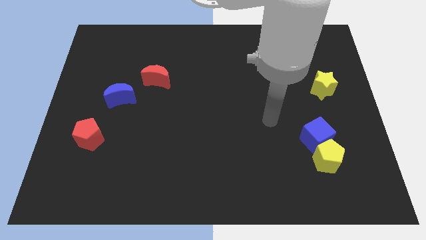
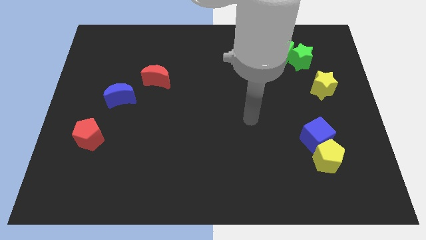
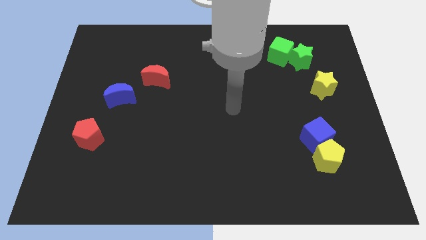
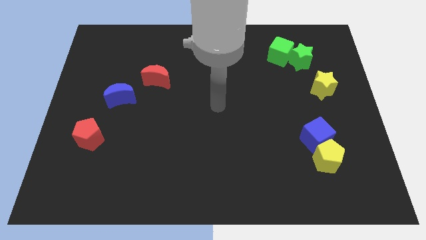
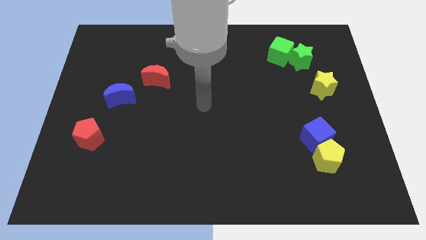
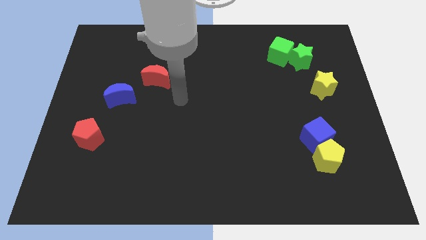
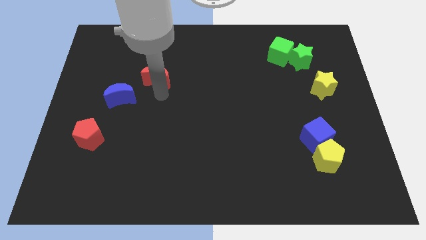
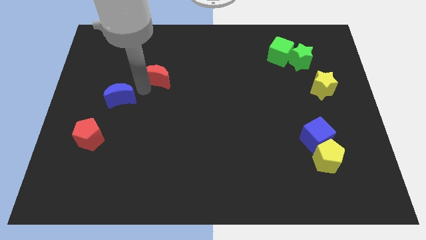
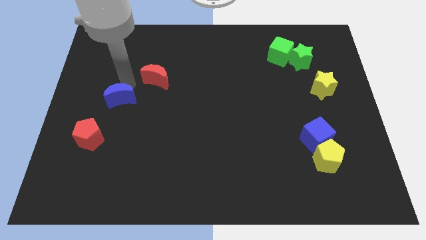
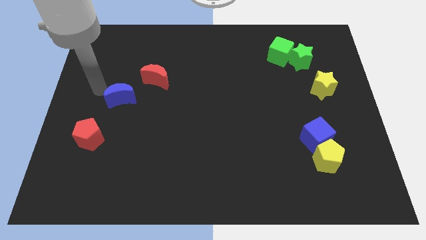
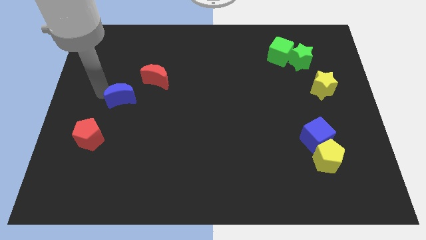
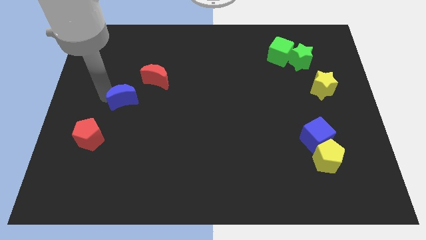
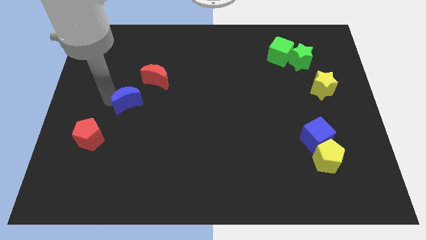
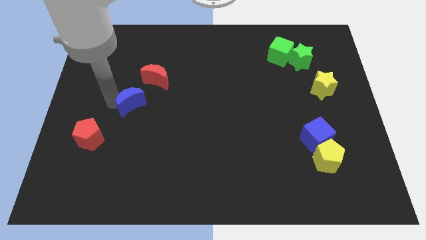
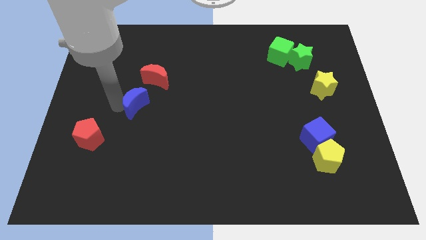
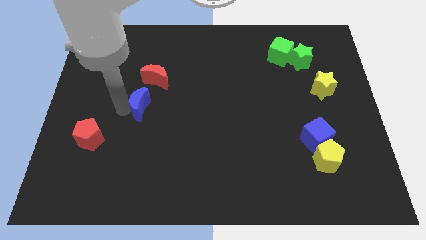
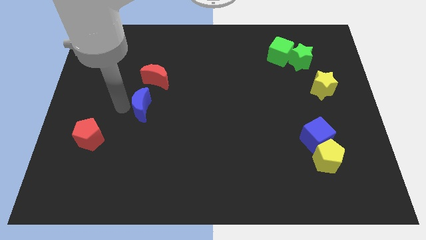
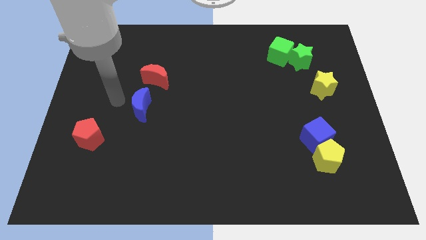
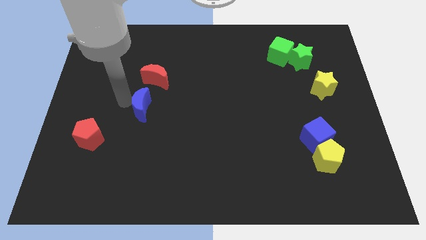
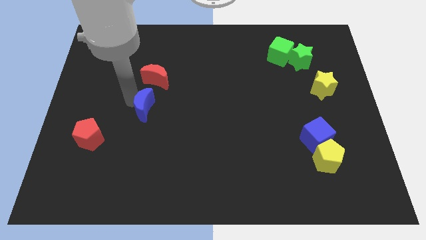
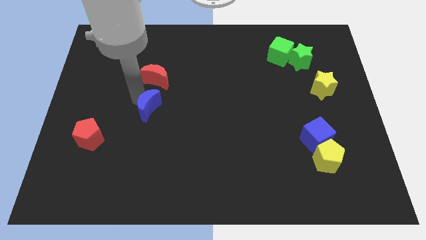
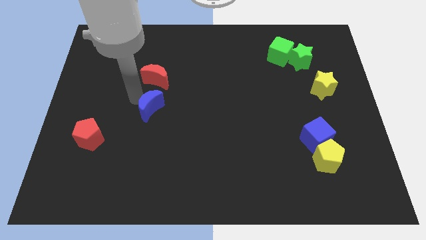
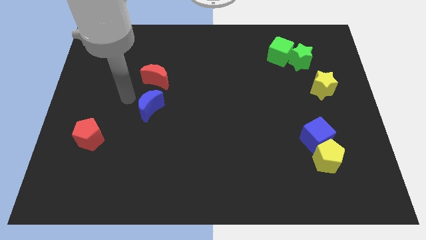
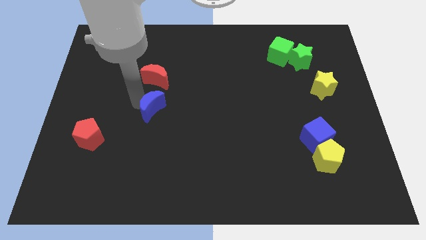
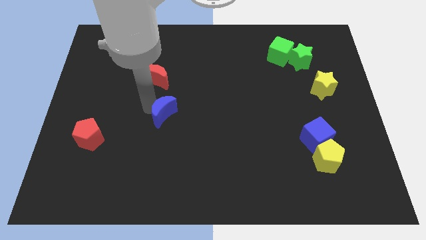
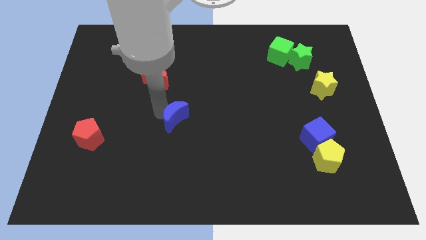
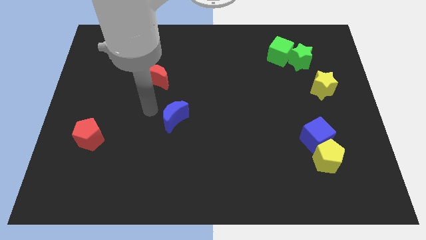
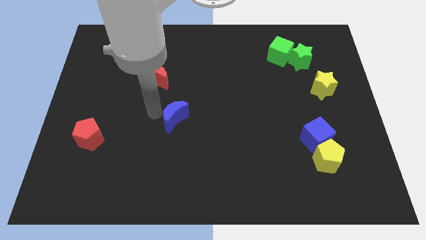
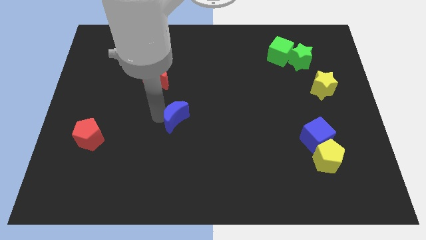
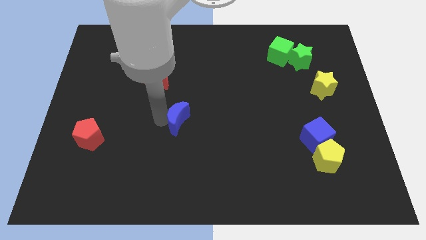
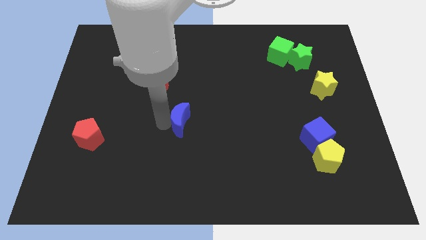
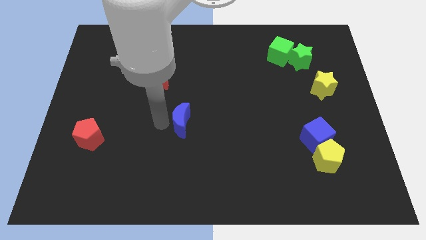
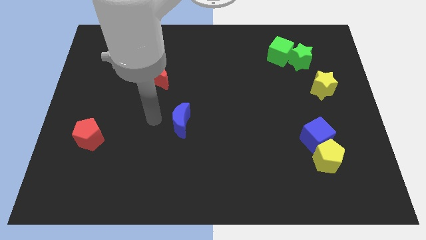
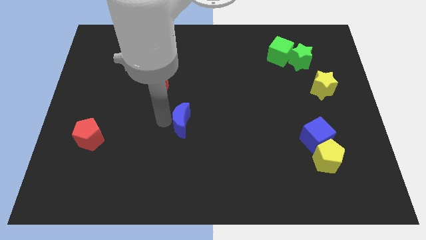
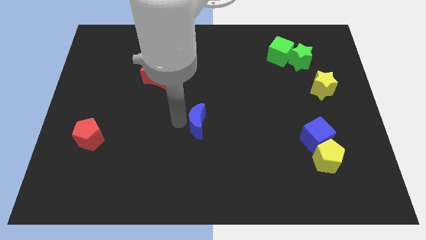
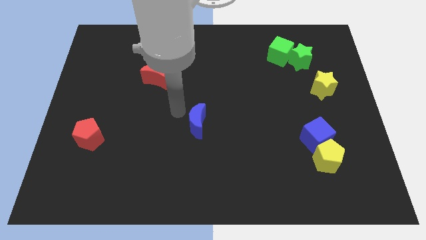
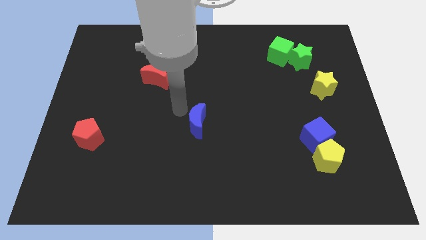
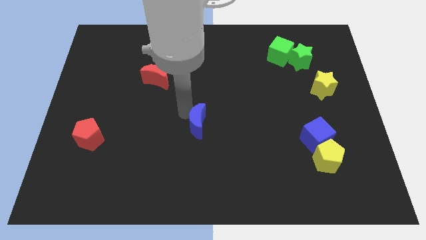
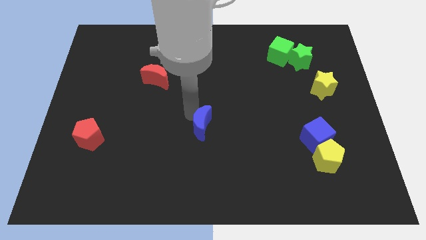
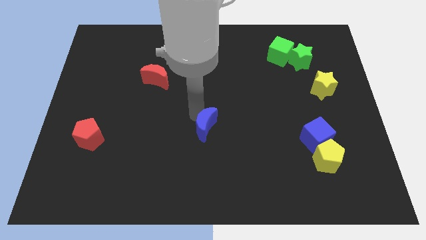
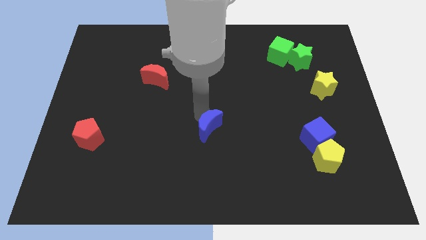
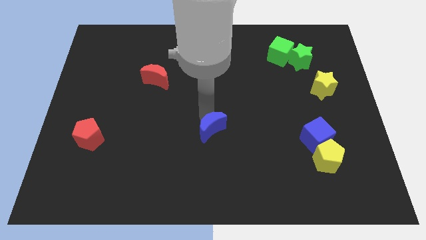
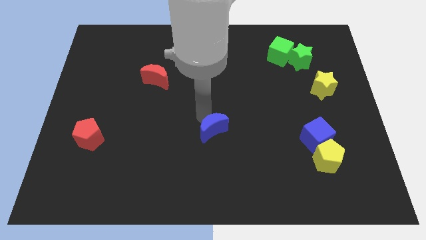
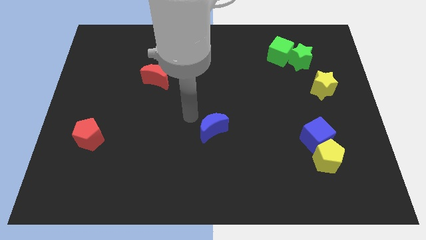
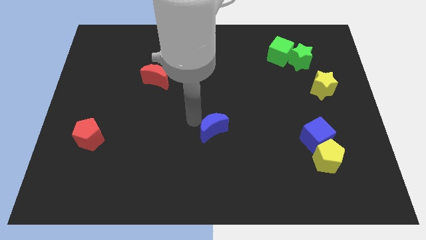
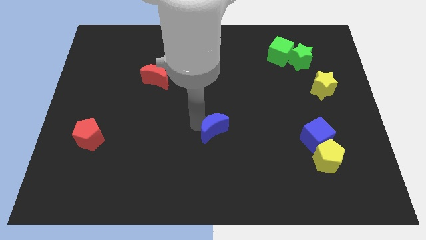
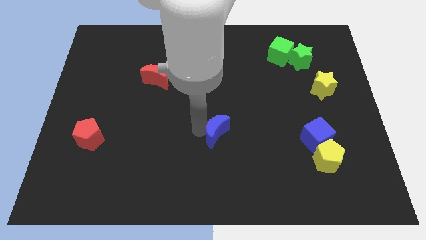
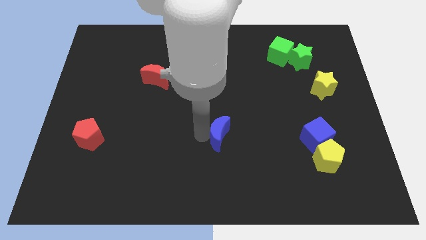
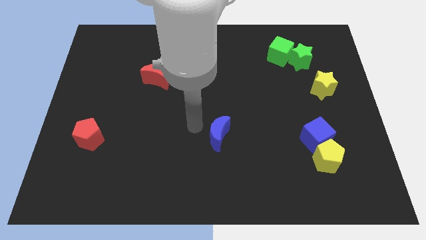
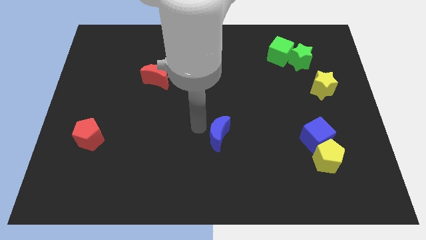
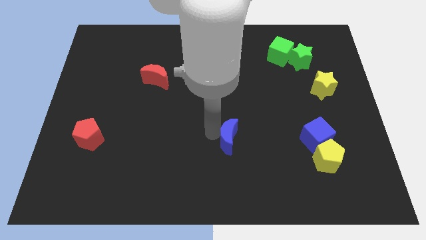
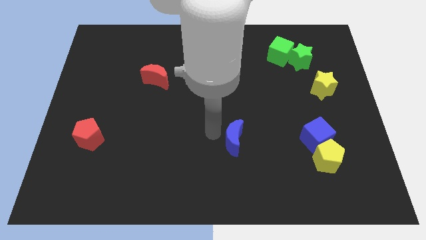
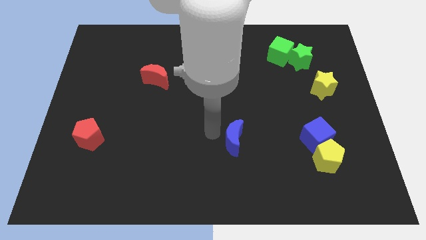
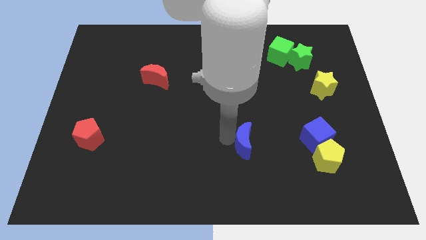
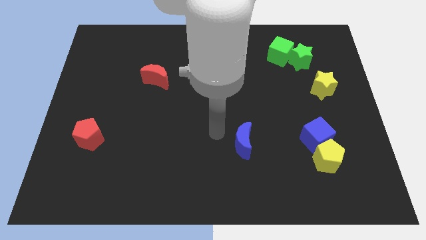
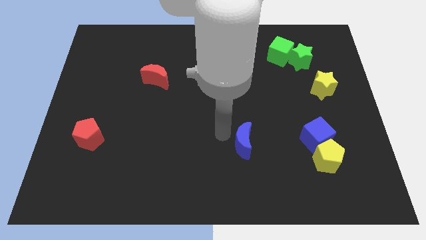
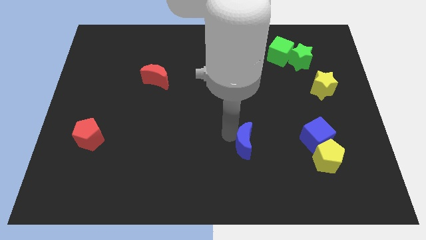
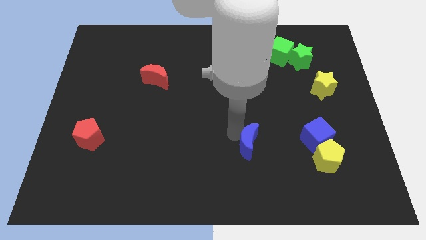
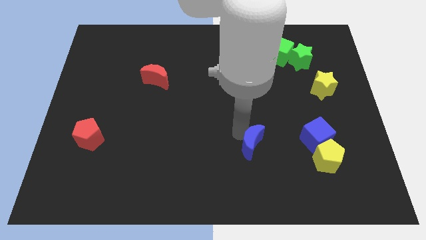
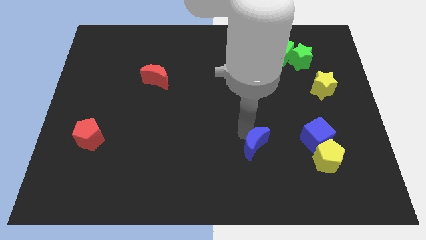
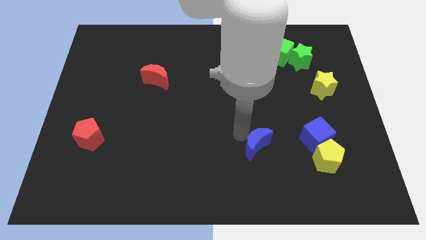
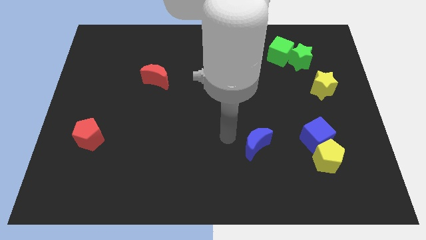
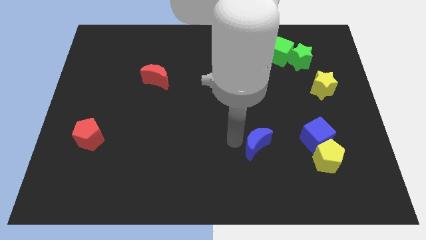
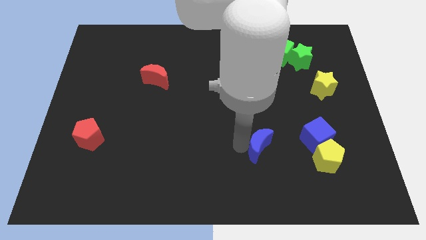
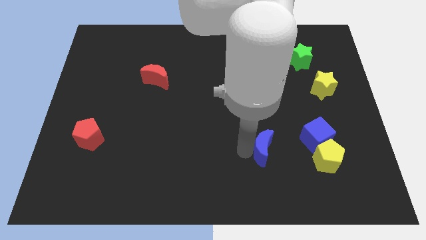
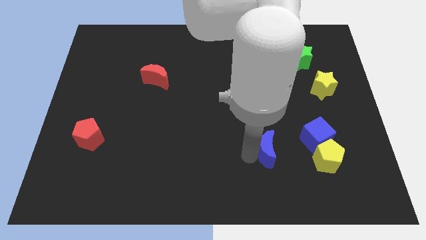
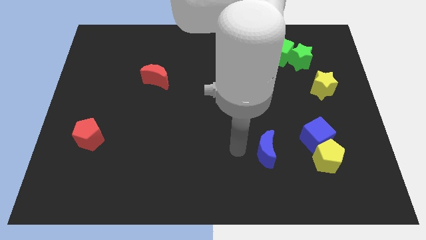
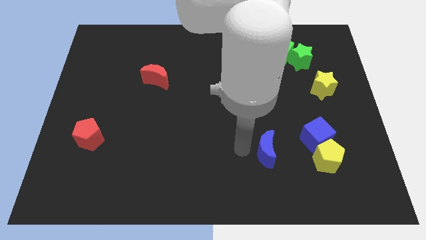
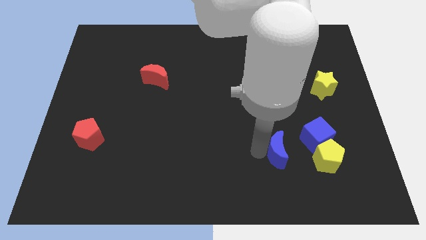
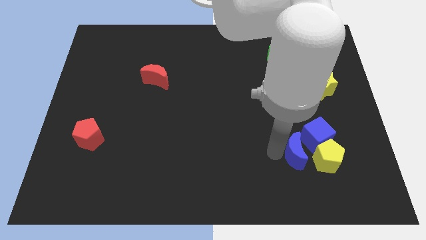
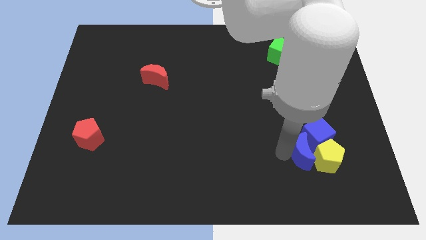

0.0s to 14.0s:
move the blue moon to the yellow pentagon
